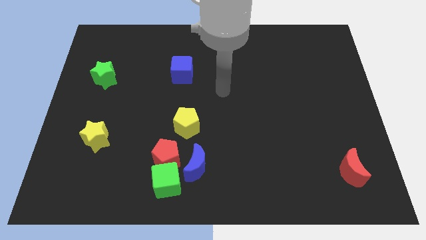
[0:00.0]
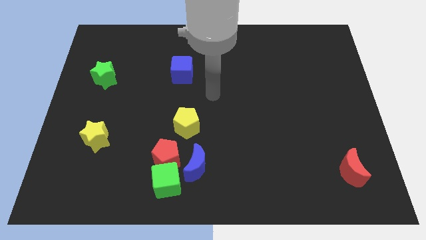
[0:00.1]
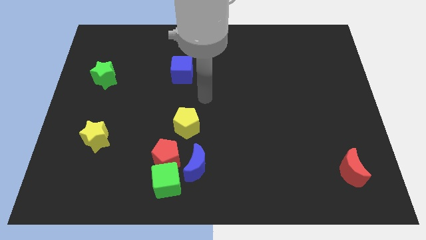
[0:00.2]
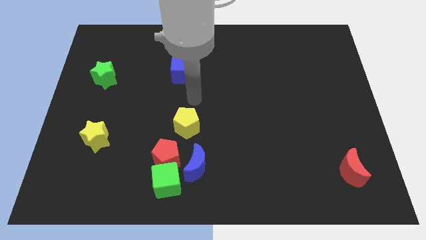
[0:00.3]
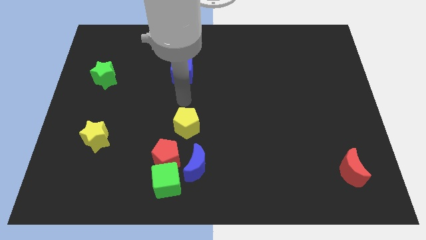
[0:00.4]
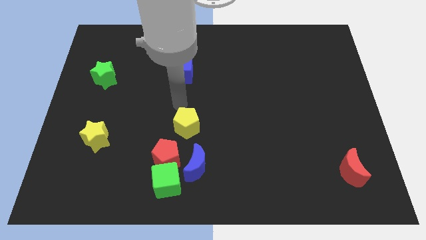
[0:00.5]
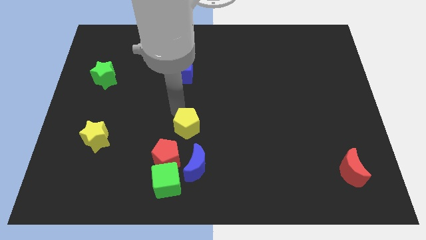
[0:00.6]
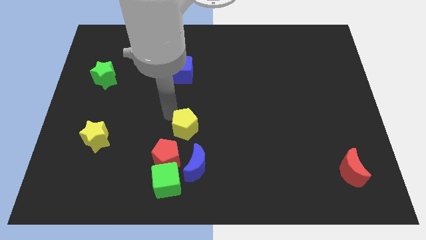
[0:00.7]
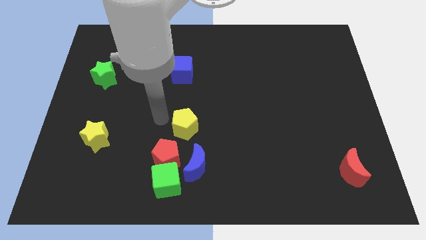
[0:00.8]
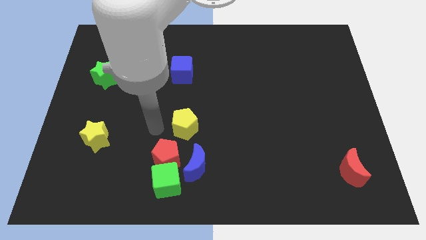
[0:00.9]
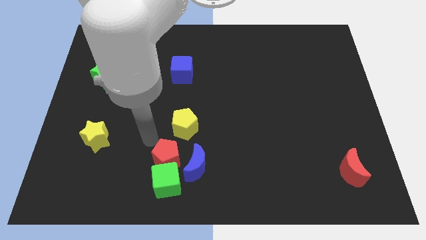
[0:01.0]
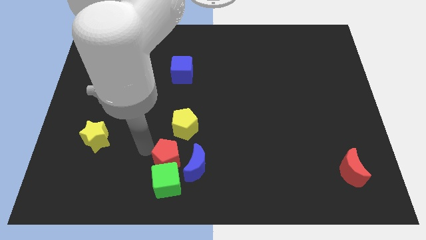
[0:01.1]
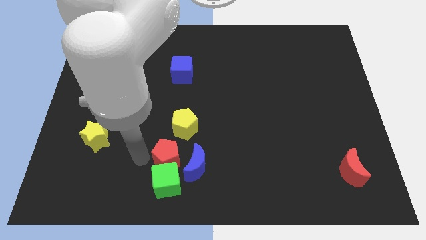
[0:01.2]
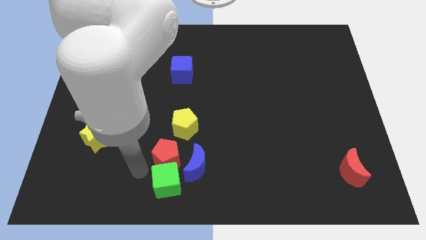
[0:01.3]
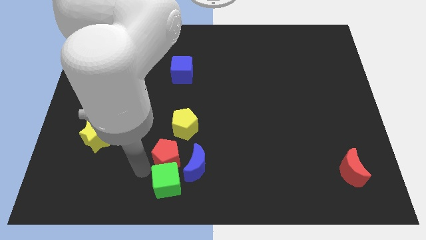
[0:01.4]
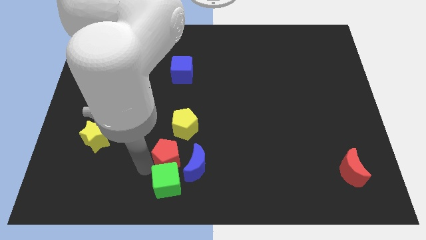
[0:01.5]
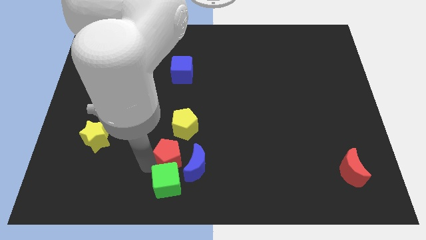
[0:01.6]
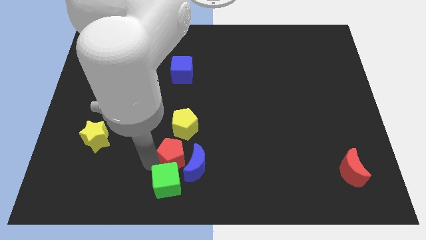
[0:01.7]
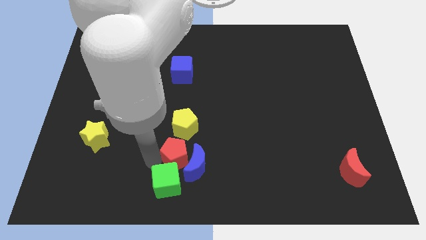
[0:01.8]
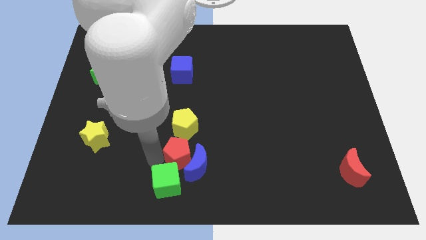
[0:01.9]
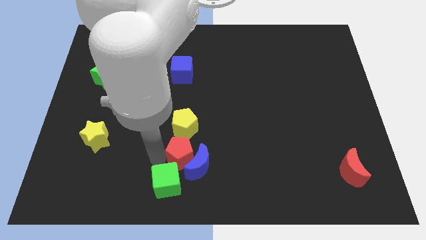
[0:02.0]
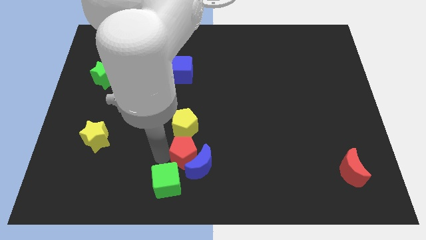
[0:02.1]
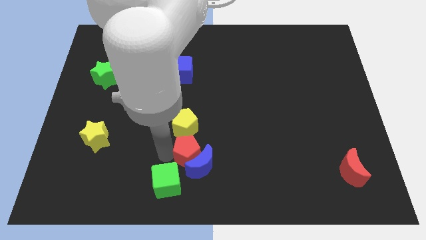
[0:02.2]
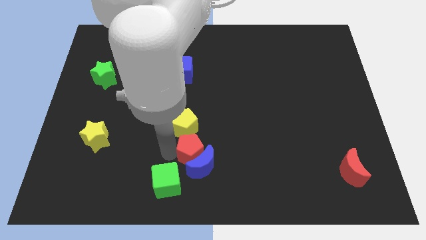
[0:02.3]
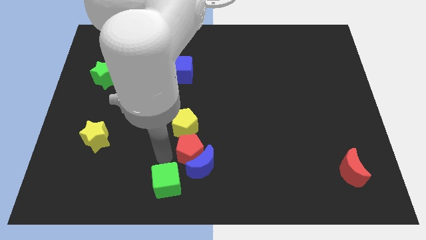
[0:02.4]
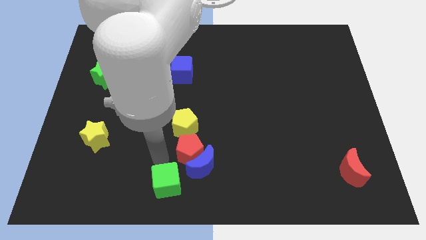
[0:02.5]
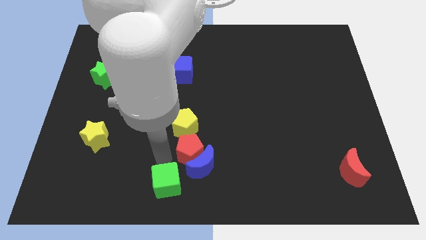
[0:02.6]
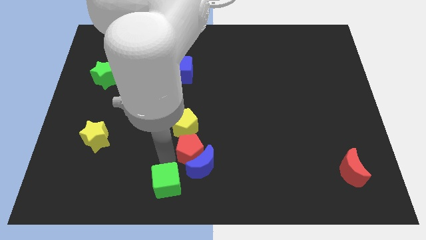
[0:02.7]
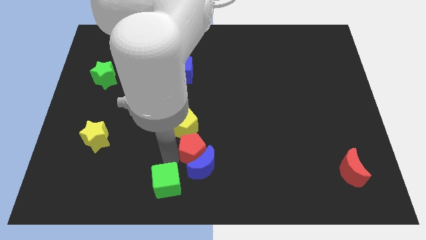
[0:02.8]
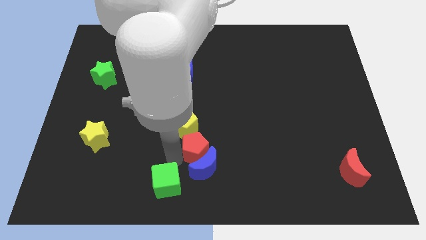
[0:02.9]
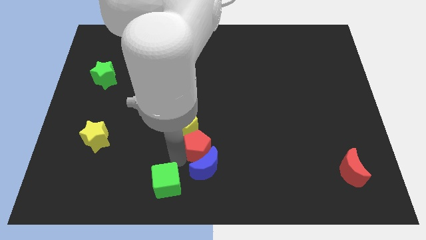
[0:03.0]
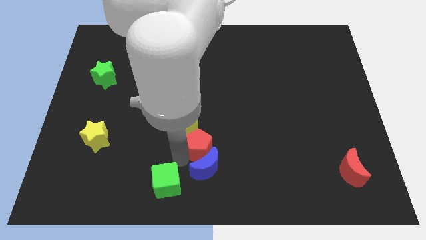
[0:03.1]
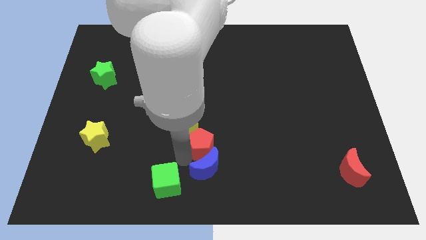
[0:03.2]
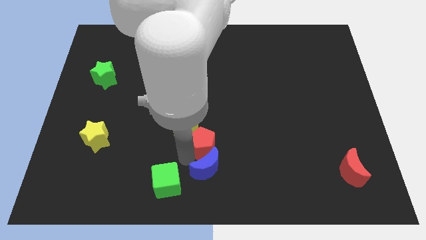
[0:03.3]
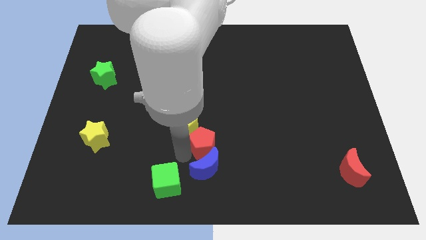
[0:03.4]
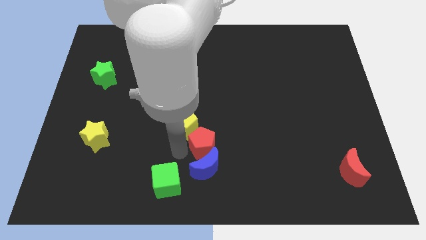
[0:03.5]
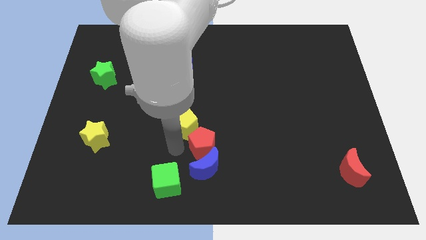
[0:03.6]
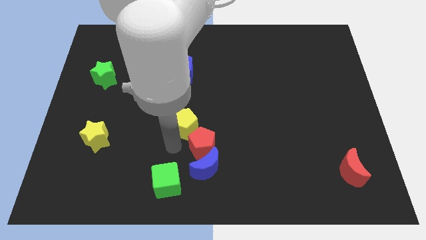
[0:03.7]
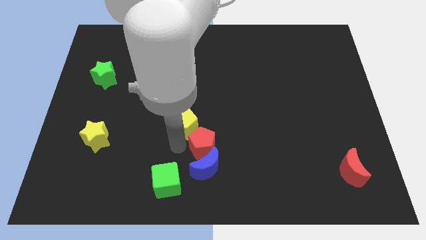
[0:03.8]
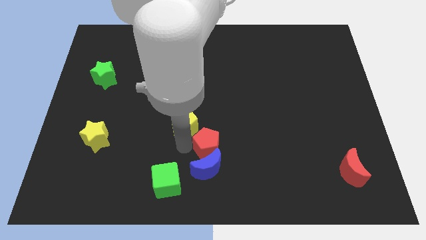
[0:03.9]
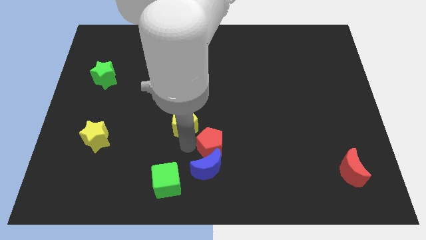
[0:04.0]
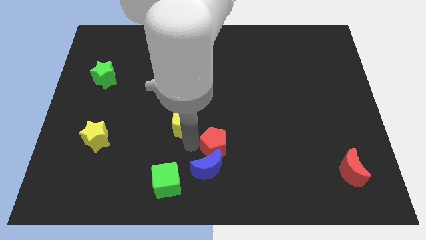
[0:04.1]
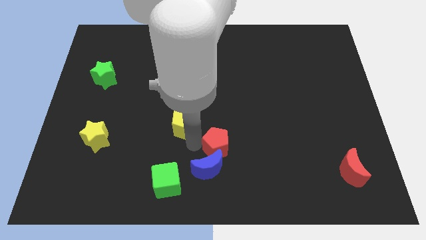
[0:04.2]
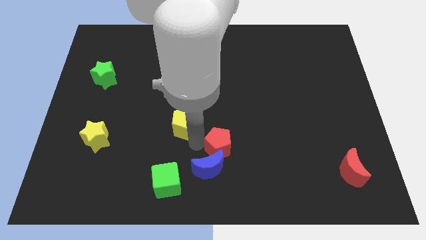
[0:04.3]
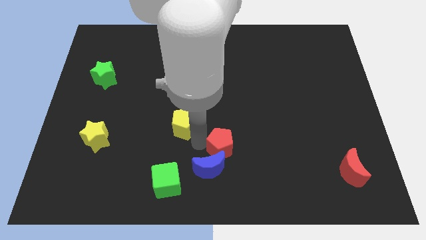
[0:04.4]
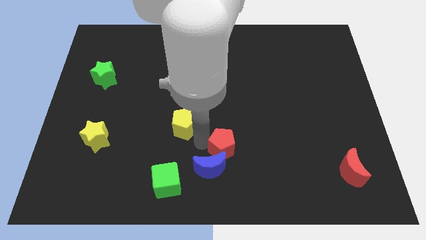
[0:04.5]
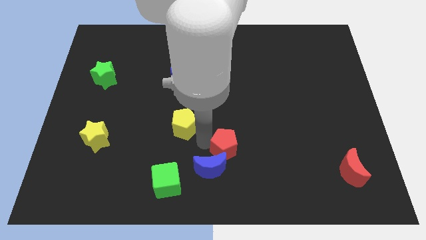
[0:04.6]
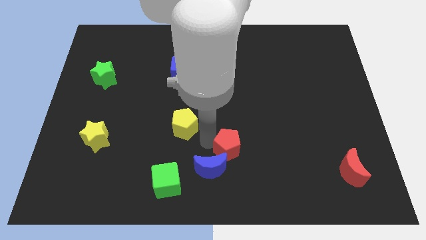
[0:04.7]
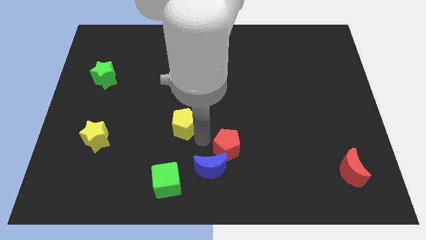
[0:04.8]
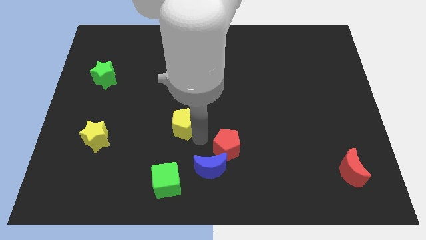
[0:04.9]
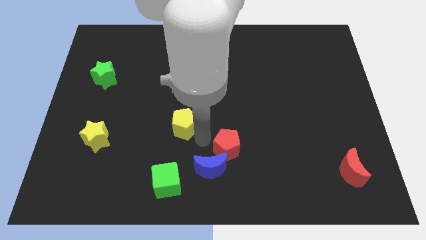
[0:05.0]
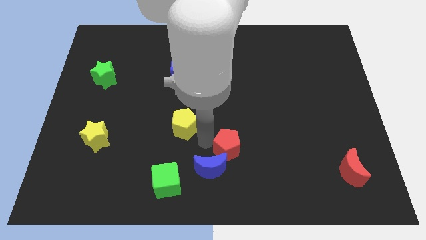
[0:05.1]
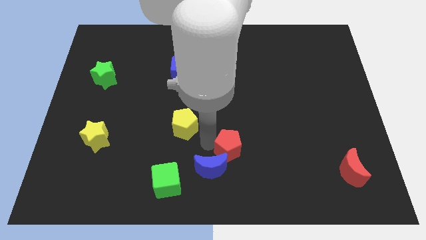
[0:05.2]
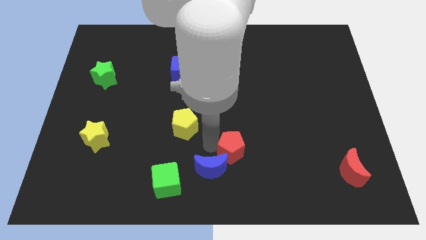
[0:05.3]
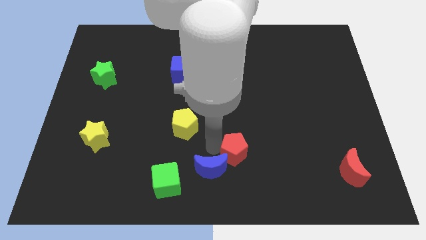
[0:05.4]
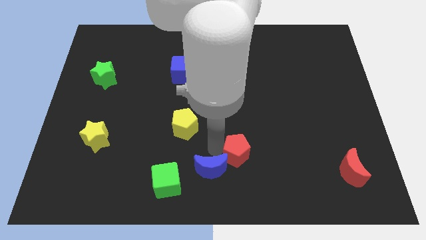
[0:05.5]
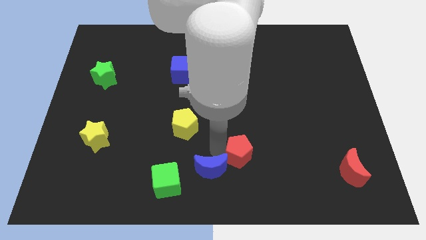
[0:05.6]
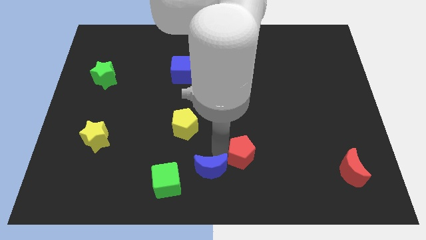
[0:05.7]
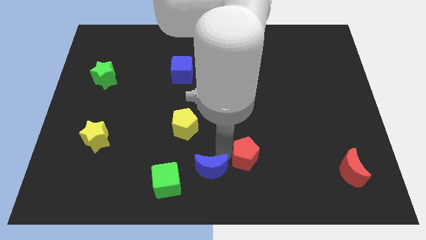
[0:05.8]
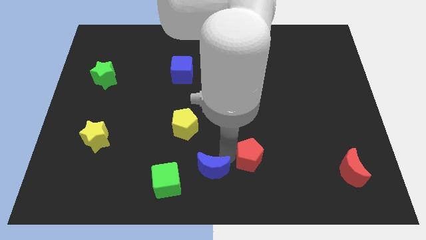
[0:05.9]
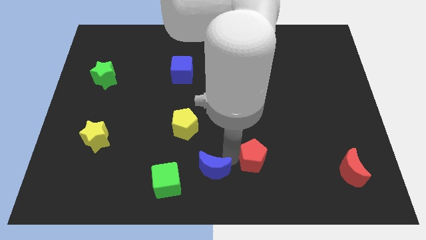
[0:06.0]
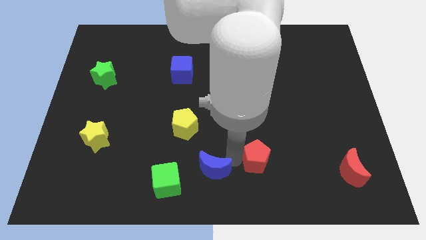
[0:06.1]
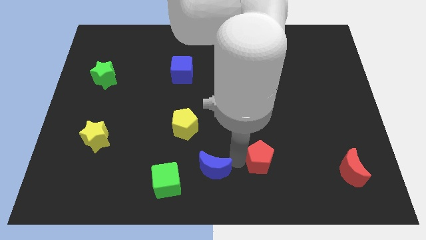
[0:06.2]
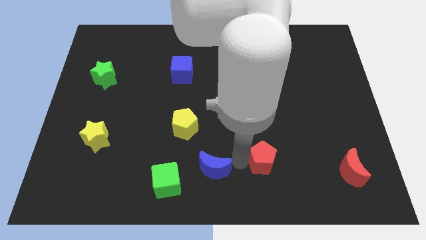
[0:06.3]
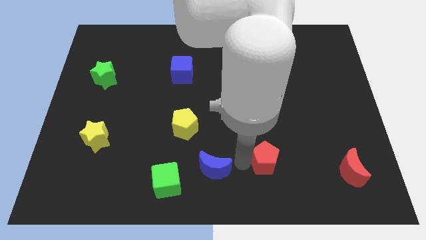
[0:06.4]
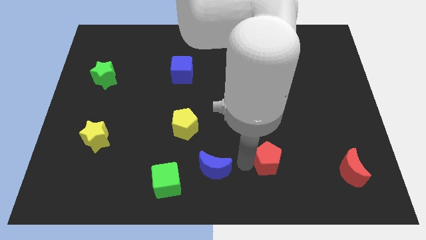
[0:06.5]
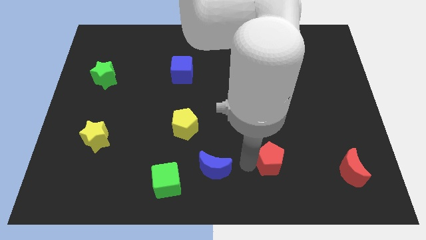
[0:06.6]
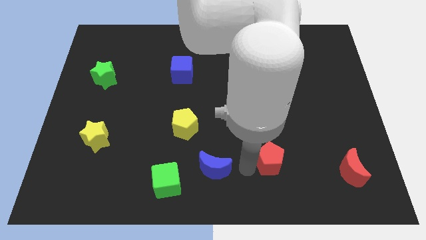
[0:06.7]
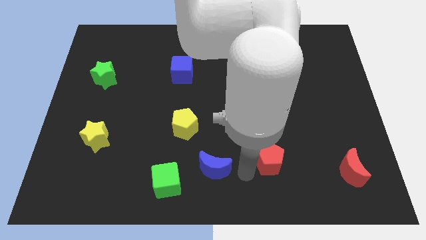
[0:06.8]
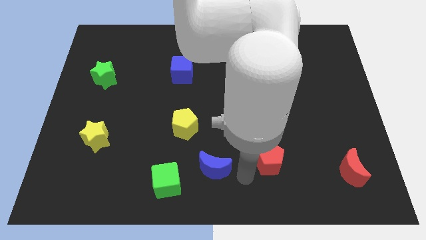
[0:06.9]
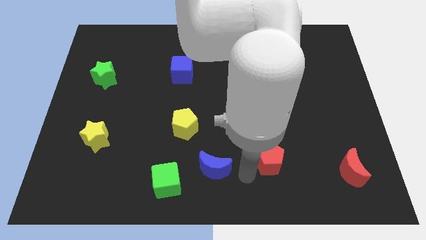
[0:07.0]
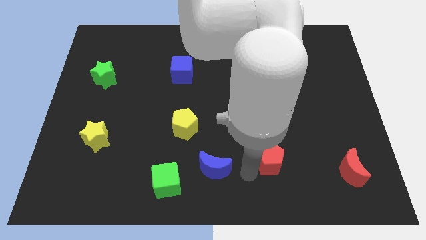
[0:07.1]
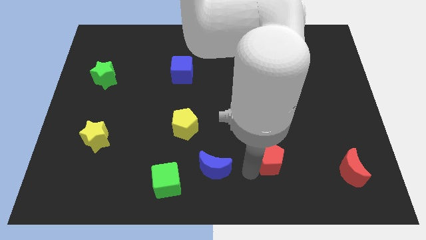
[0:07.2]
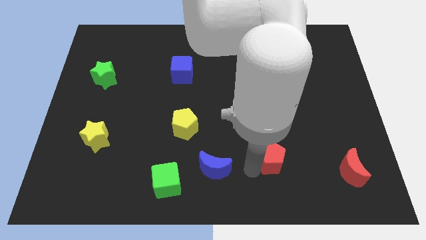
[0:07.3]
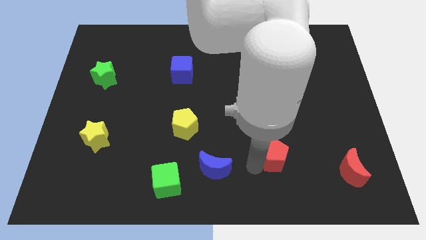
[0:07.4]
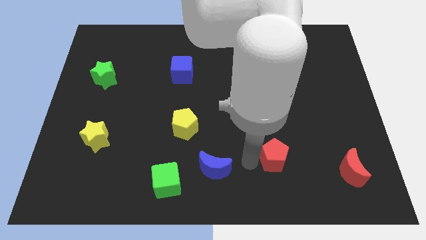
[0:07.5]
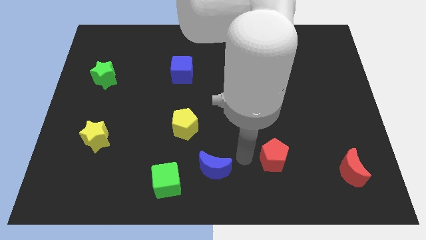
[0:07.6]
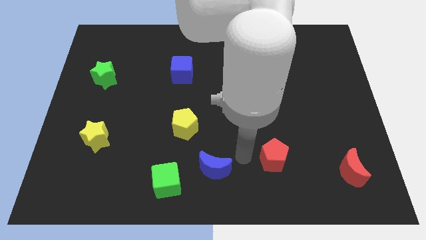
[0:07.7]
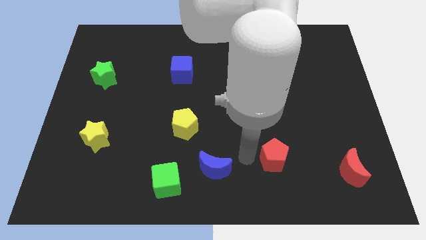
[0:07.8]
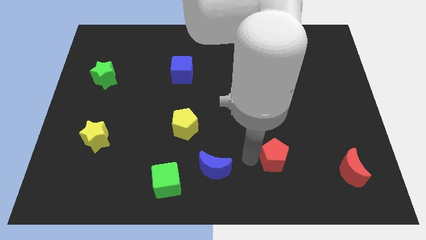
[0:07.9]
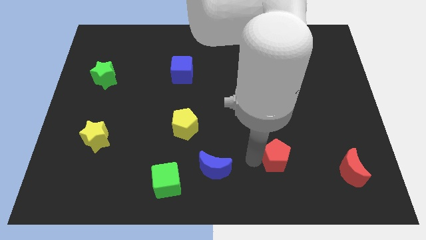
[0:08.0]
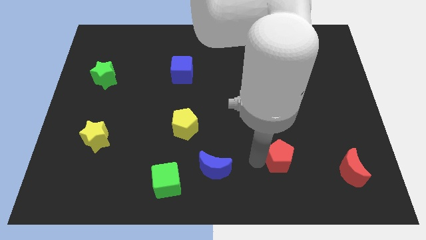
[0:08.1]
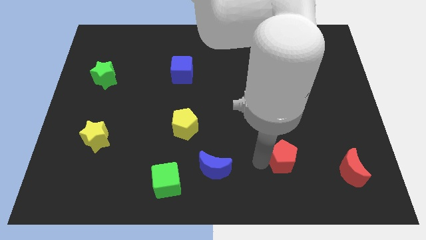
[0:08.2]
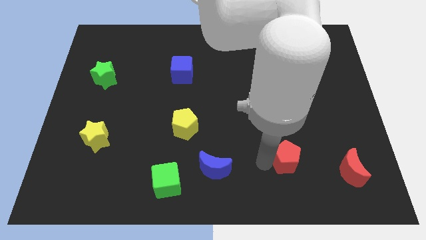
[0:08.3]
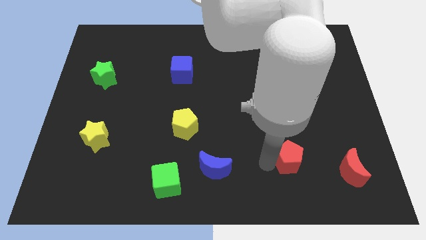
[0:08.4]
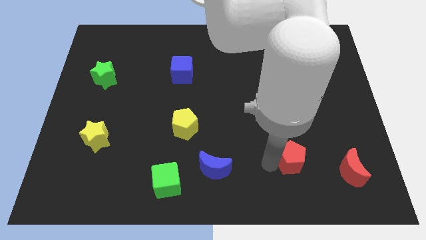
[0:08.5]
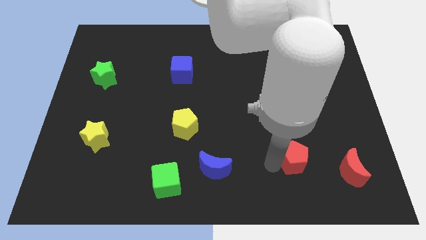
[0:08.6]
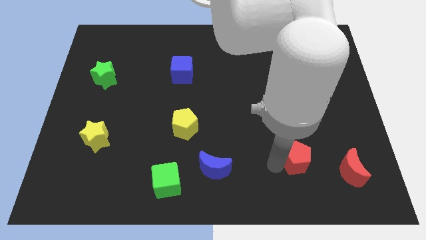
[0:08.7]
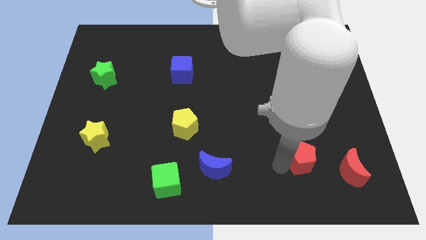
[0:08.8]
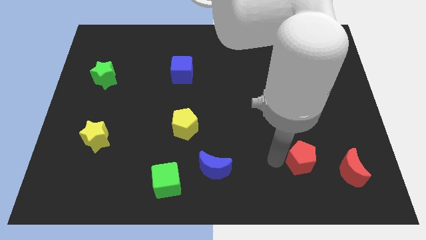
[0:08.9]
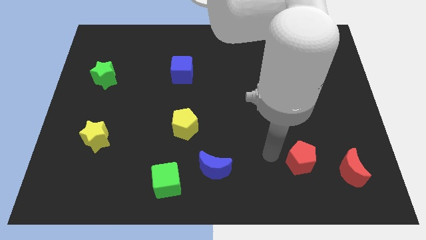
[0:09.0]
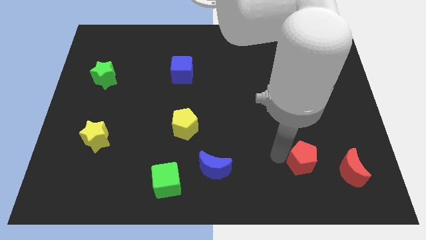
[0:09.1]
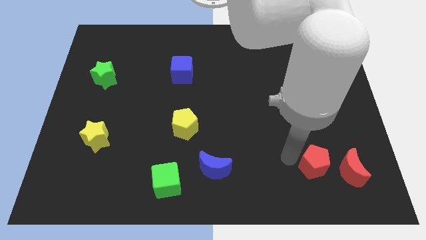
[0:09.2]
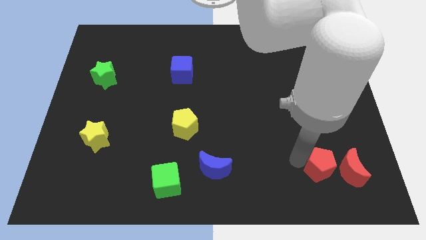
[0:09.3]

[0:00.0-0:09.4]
slide the red pentagon to the red moon
